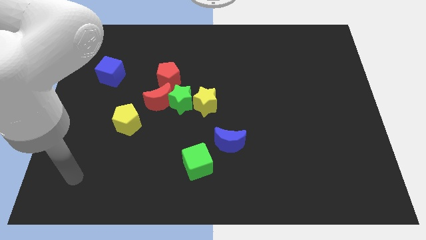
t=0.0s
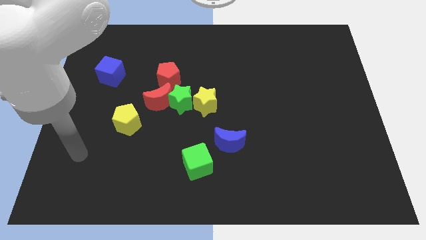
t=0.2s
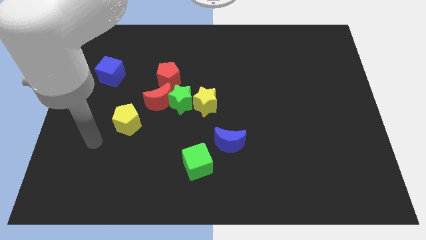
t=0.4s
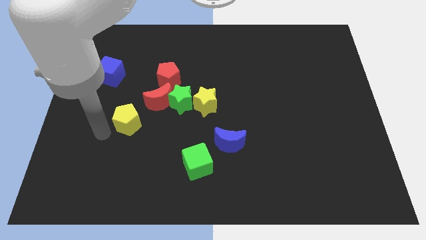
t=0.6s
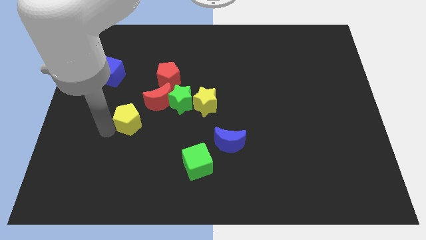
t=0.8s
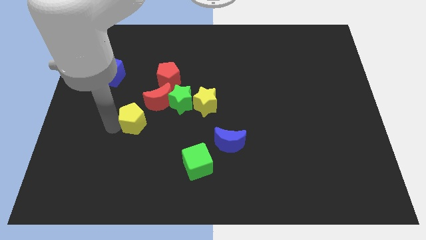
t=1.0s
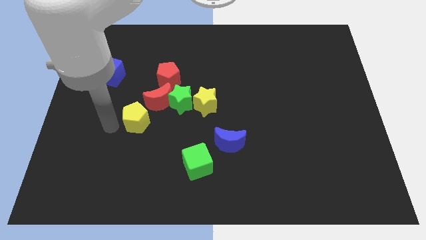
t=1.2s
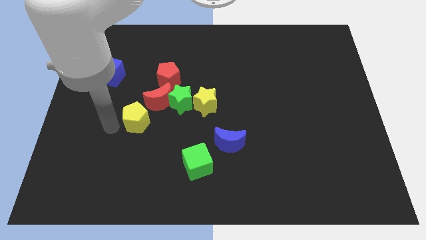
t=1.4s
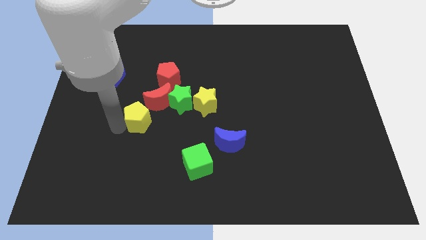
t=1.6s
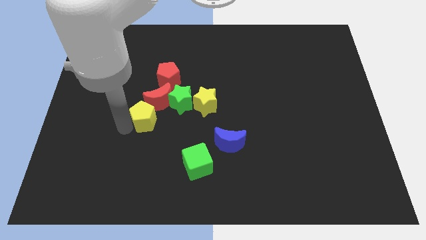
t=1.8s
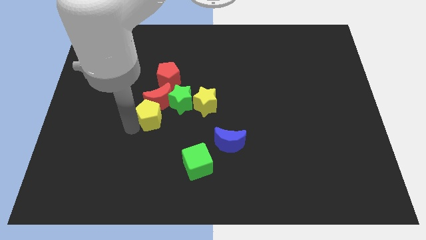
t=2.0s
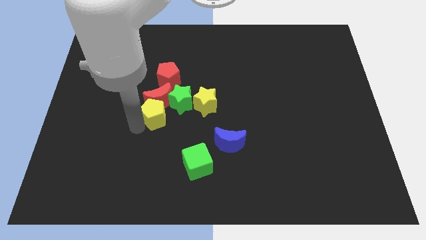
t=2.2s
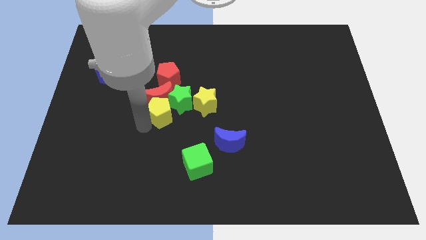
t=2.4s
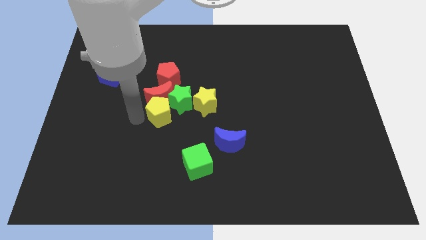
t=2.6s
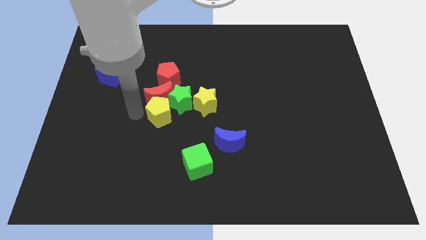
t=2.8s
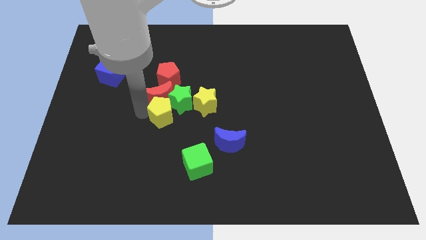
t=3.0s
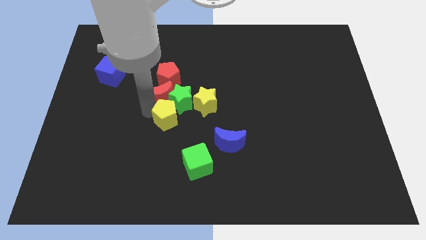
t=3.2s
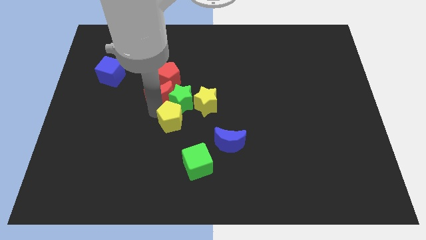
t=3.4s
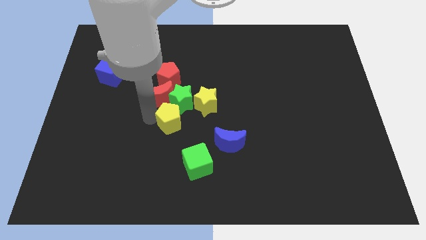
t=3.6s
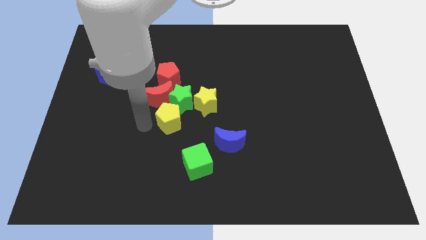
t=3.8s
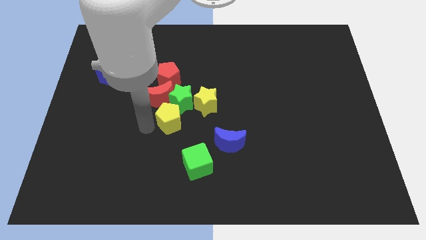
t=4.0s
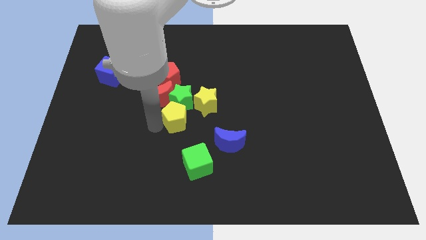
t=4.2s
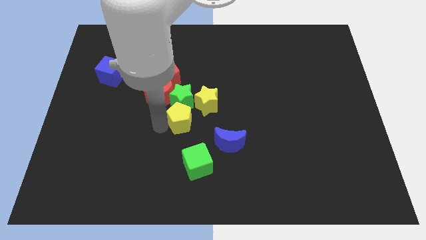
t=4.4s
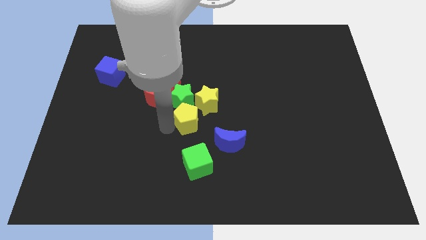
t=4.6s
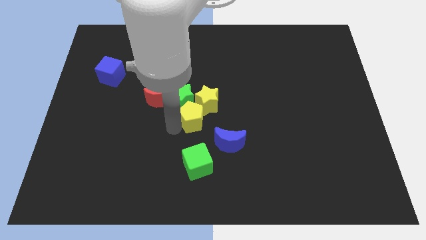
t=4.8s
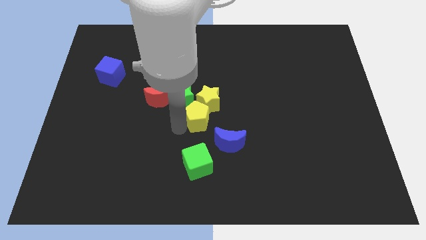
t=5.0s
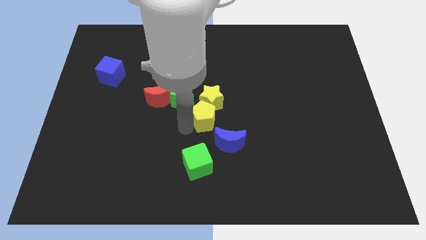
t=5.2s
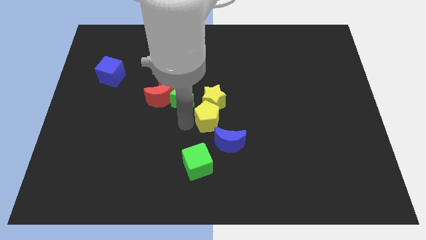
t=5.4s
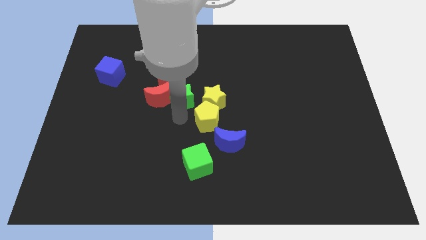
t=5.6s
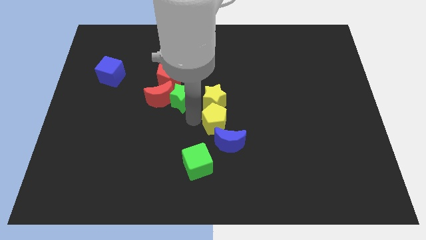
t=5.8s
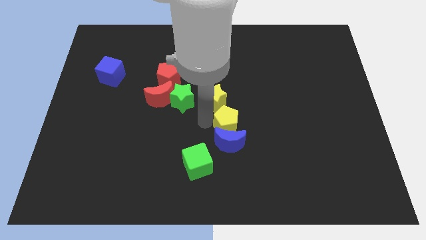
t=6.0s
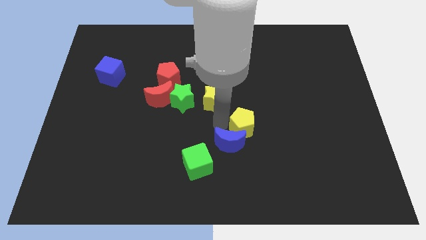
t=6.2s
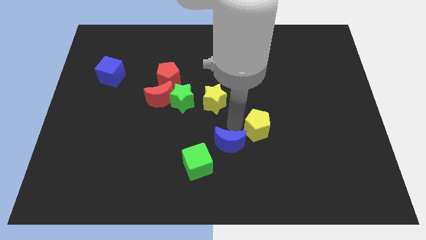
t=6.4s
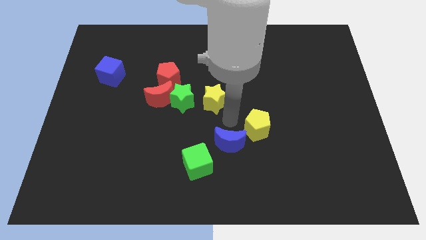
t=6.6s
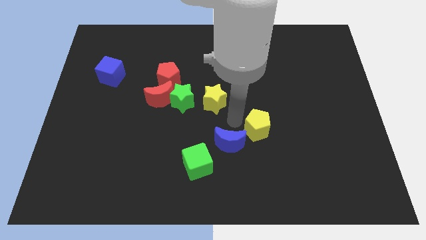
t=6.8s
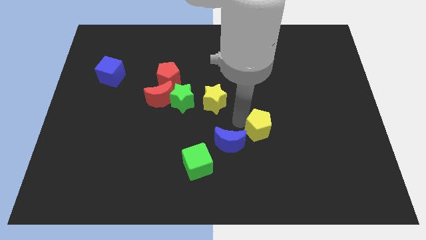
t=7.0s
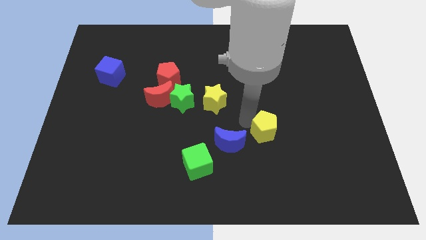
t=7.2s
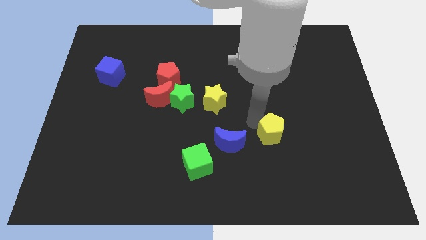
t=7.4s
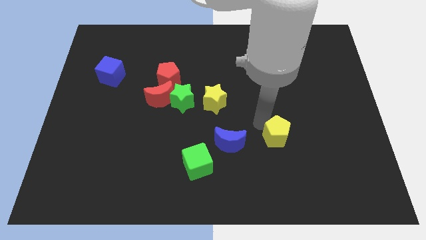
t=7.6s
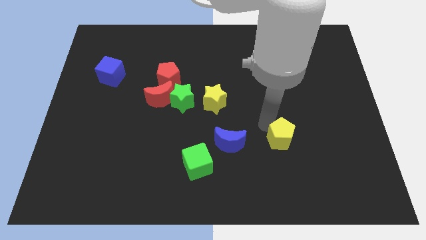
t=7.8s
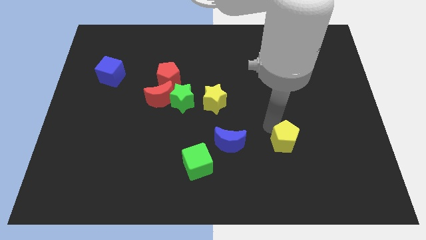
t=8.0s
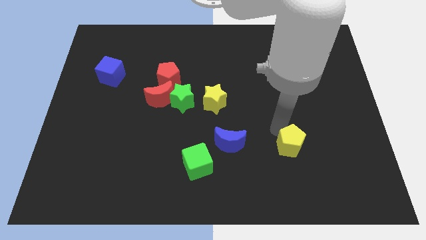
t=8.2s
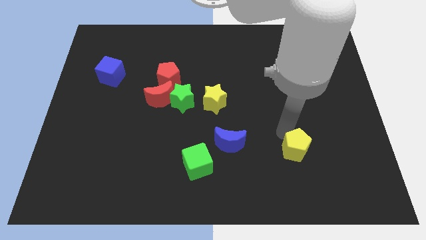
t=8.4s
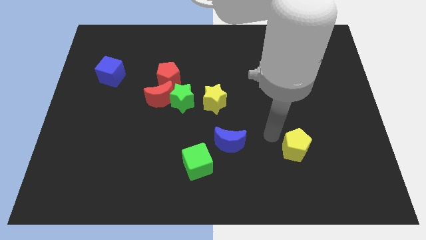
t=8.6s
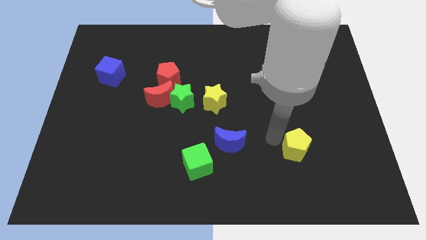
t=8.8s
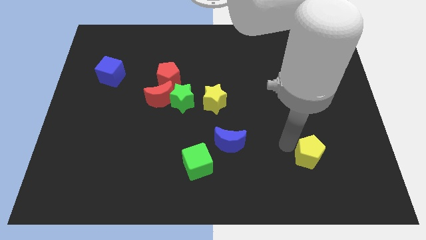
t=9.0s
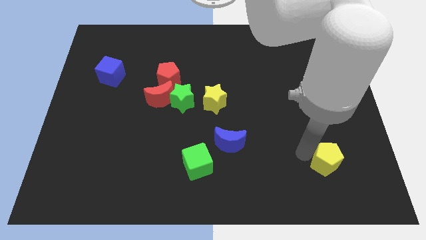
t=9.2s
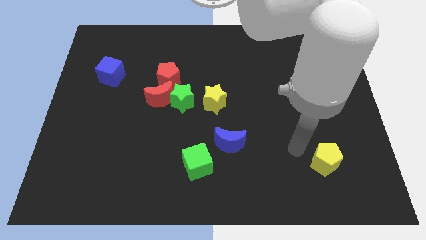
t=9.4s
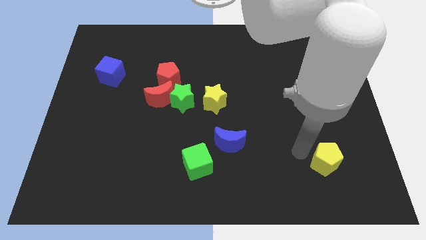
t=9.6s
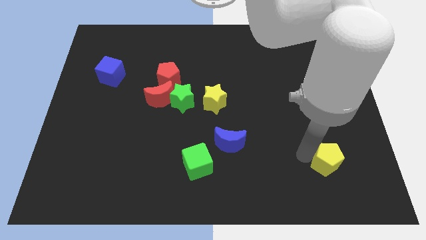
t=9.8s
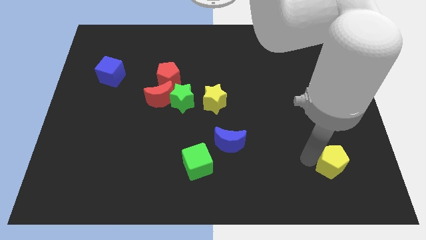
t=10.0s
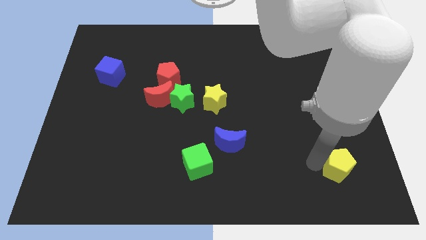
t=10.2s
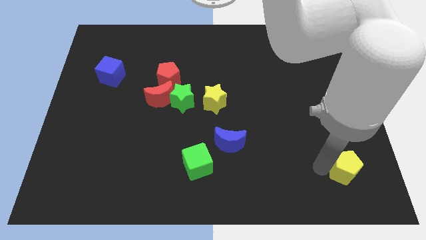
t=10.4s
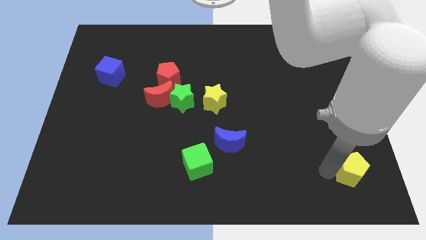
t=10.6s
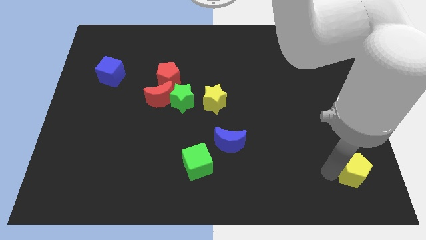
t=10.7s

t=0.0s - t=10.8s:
put the yellow pentagon to the bottom right

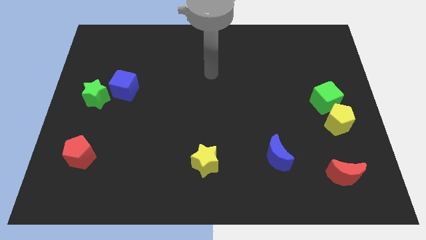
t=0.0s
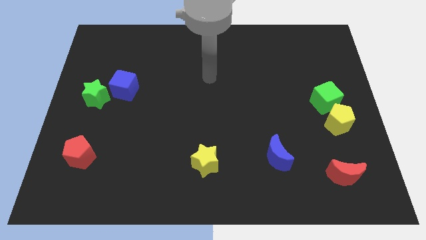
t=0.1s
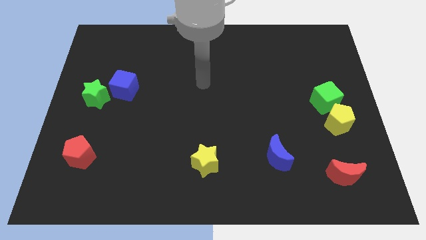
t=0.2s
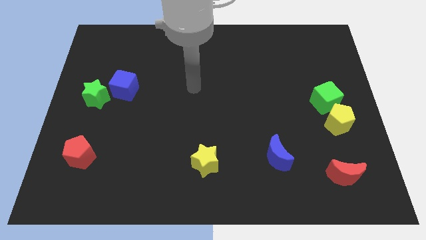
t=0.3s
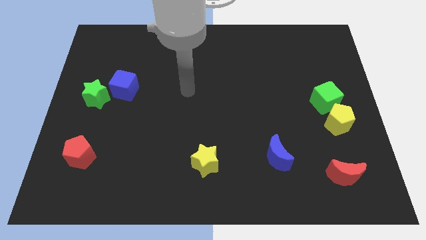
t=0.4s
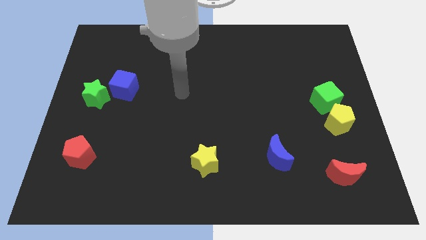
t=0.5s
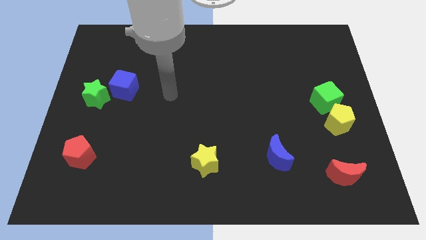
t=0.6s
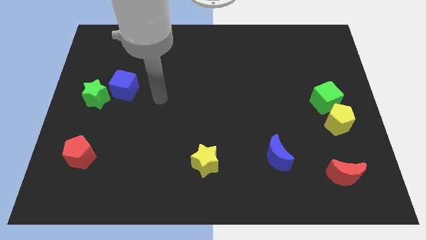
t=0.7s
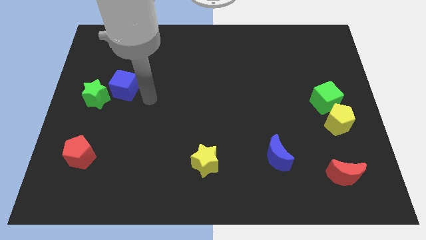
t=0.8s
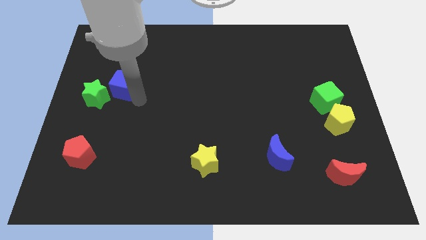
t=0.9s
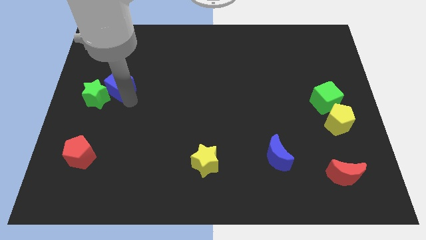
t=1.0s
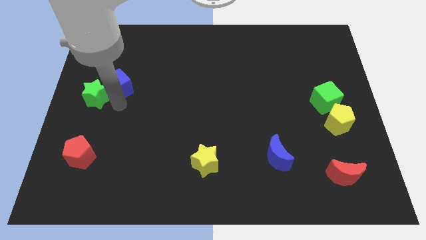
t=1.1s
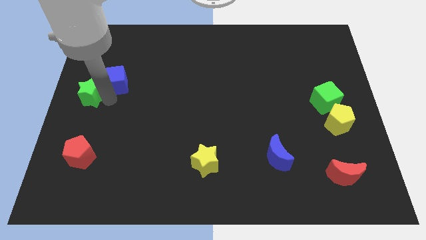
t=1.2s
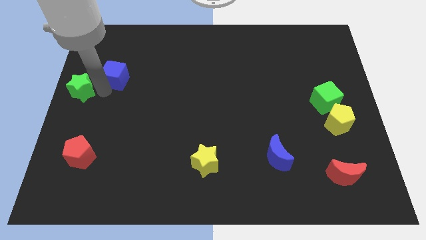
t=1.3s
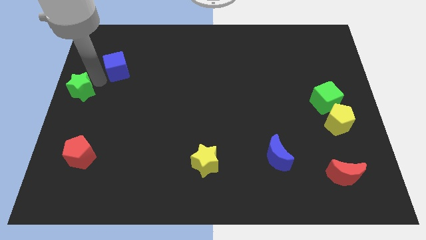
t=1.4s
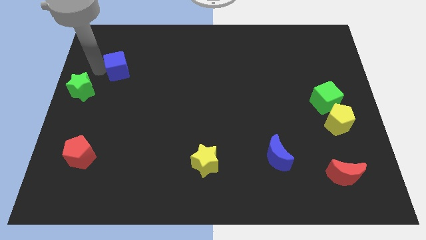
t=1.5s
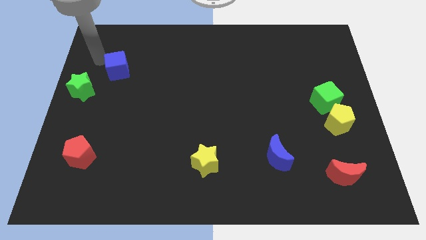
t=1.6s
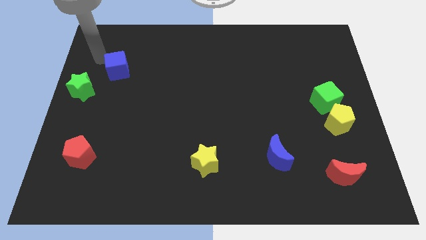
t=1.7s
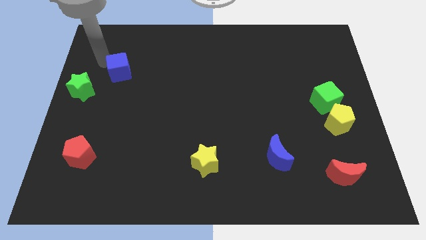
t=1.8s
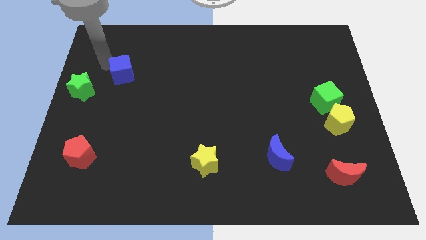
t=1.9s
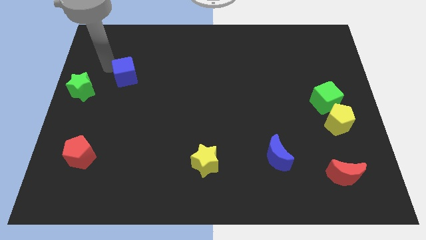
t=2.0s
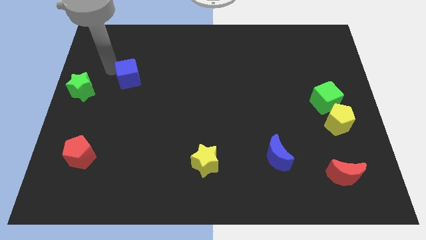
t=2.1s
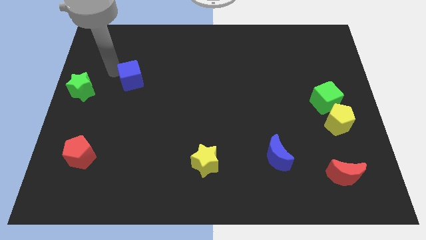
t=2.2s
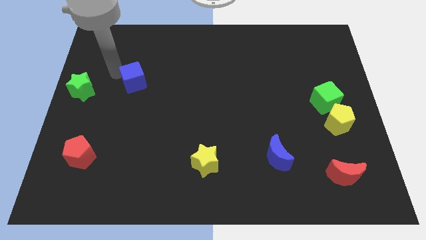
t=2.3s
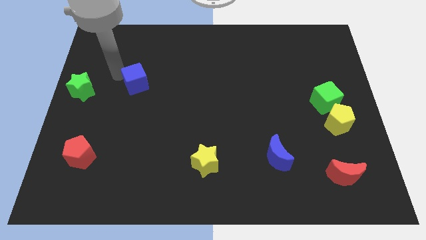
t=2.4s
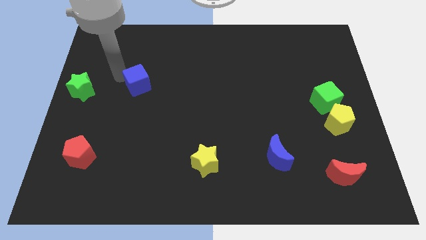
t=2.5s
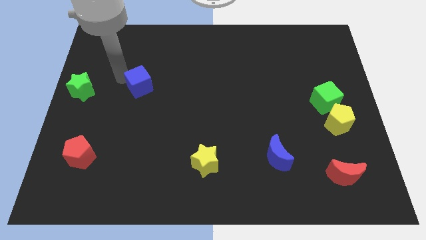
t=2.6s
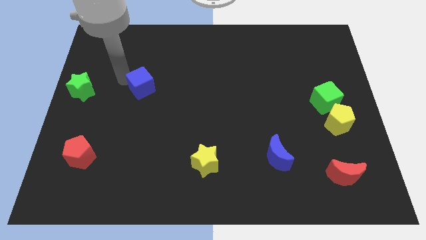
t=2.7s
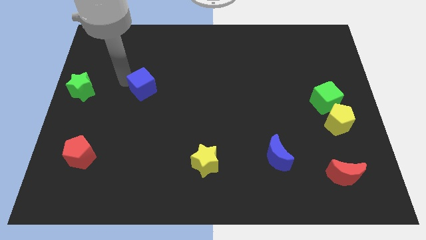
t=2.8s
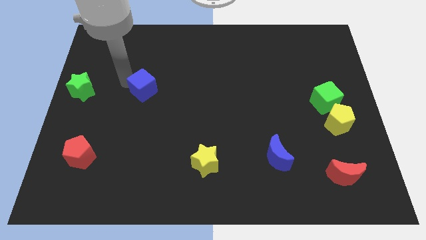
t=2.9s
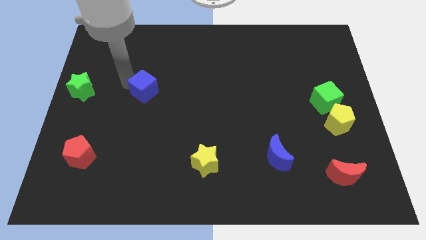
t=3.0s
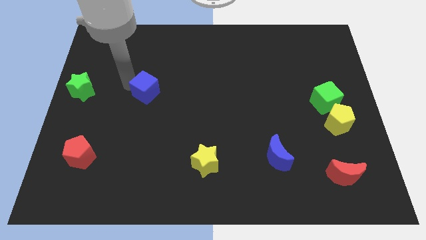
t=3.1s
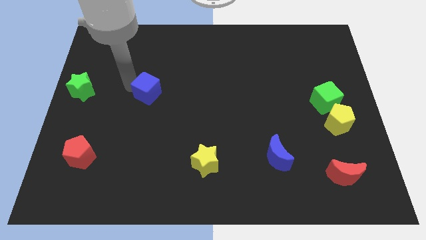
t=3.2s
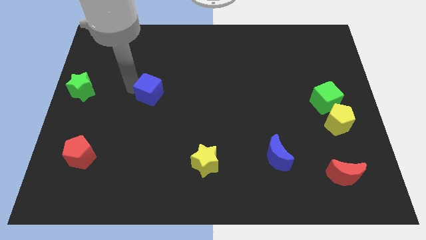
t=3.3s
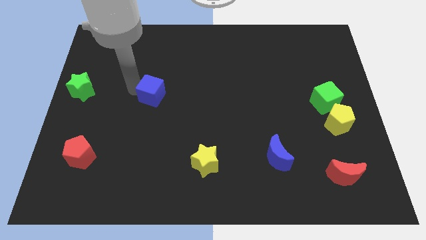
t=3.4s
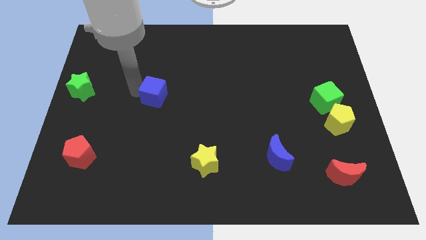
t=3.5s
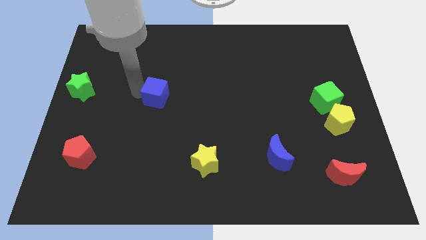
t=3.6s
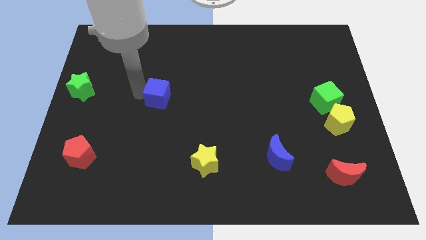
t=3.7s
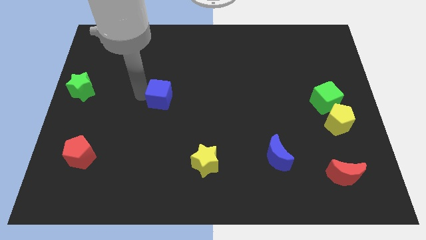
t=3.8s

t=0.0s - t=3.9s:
put the blue cube to the center
